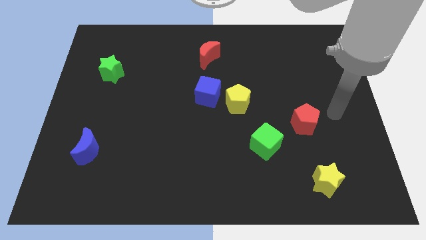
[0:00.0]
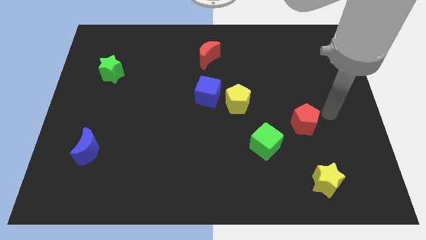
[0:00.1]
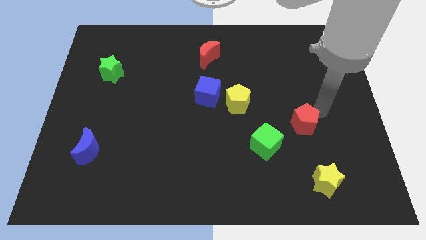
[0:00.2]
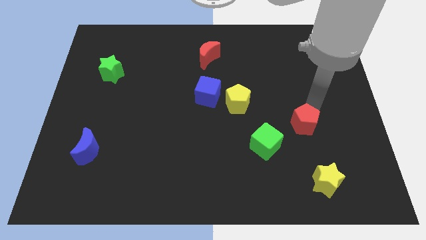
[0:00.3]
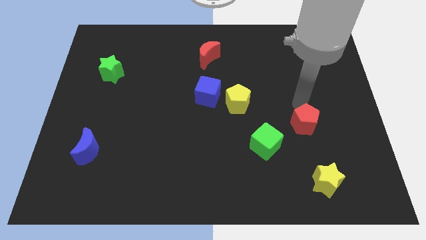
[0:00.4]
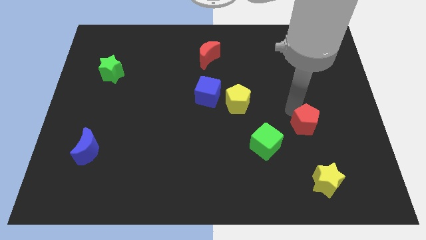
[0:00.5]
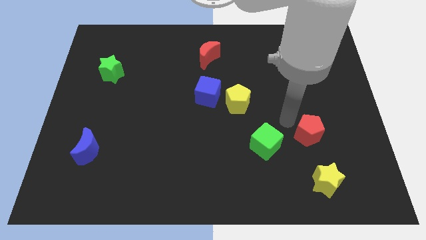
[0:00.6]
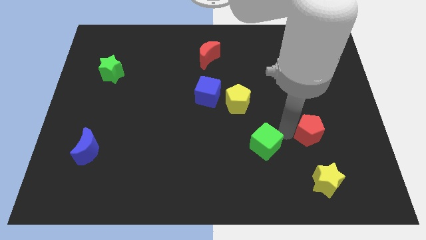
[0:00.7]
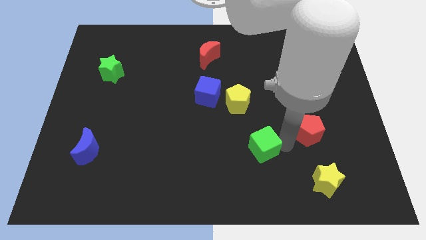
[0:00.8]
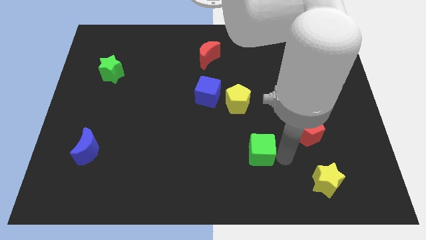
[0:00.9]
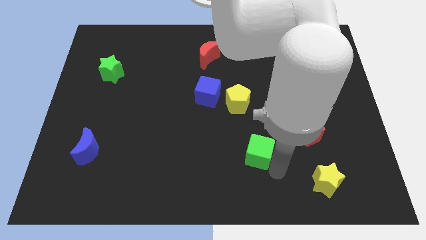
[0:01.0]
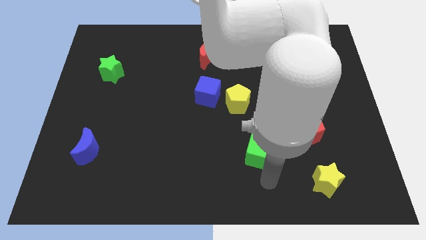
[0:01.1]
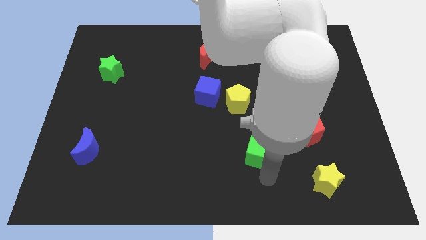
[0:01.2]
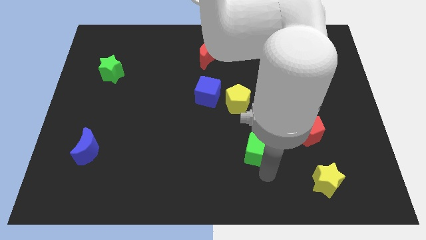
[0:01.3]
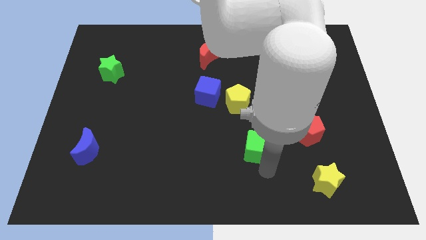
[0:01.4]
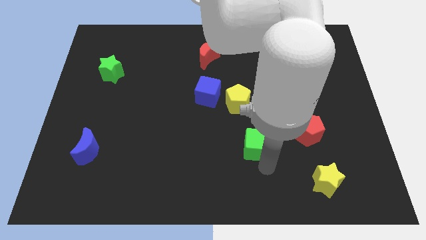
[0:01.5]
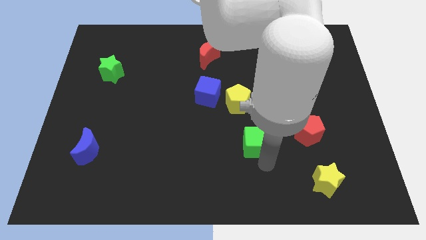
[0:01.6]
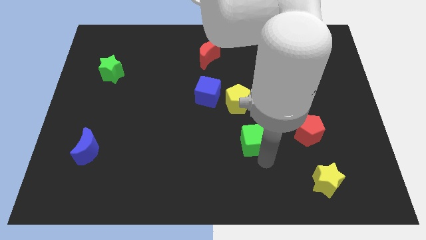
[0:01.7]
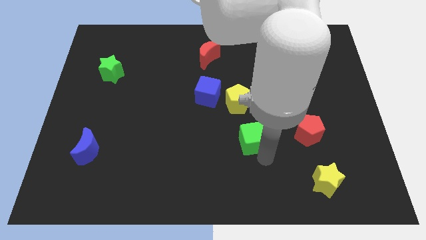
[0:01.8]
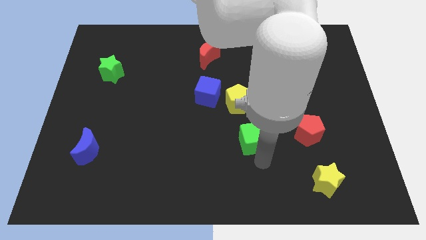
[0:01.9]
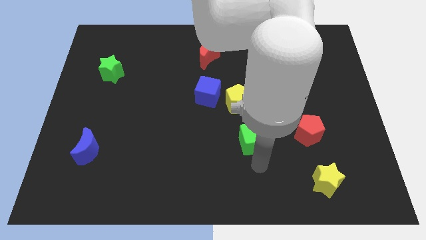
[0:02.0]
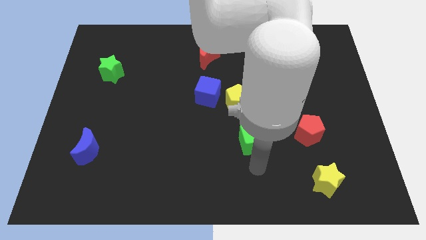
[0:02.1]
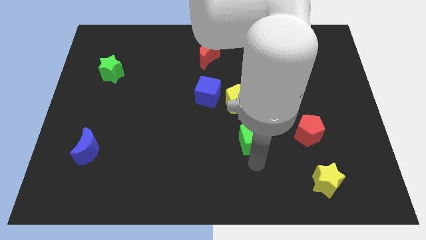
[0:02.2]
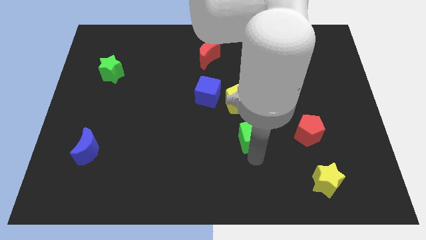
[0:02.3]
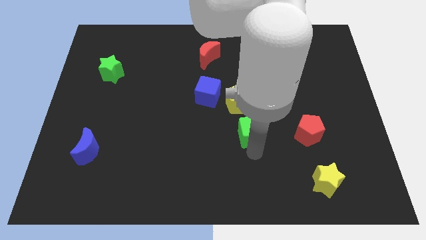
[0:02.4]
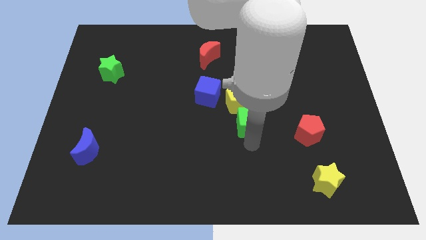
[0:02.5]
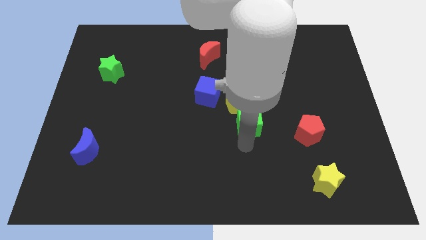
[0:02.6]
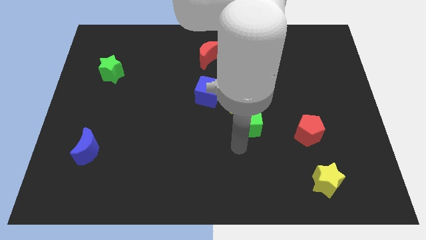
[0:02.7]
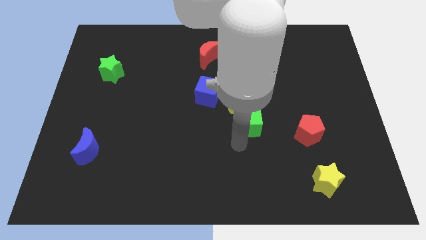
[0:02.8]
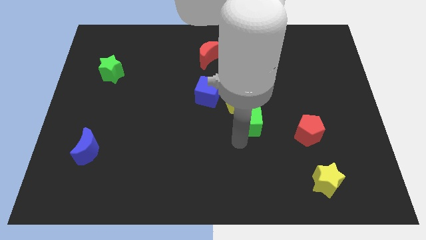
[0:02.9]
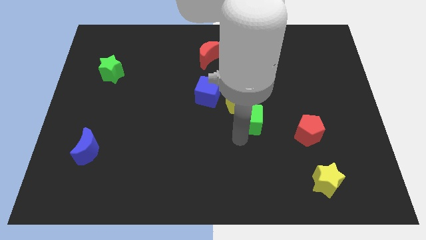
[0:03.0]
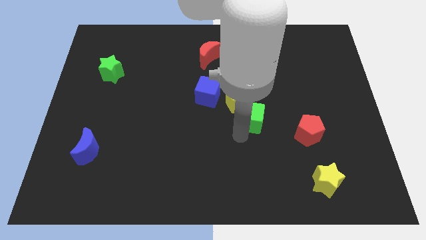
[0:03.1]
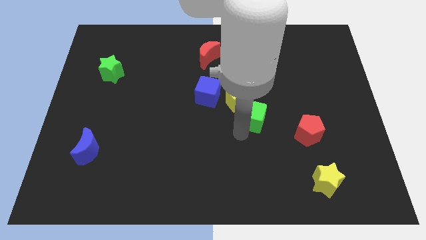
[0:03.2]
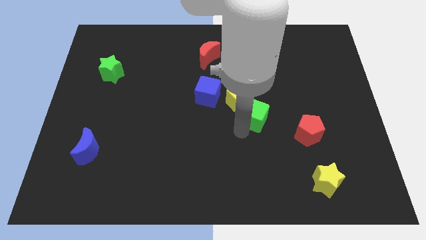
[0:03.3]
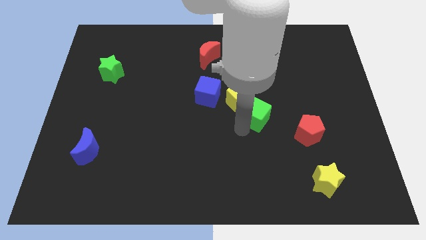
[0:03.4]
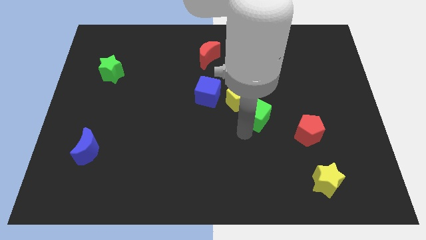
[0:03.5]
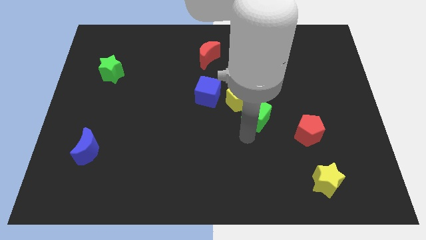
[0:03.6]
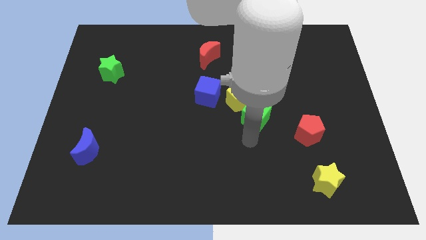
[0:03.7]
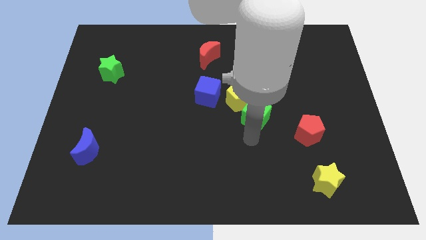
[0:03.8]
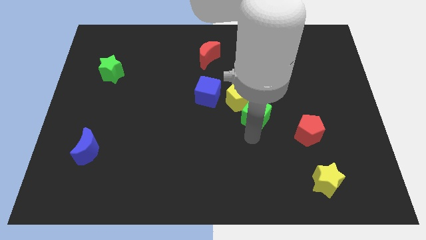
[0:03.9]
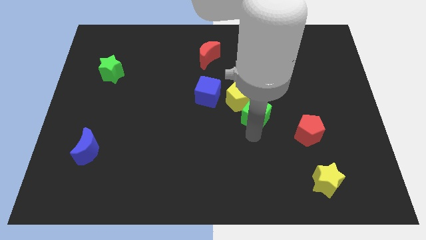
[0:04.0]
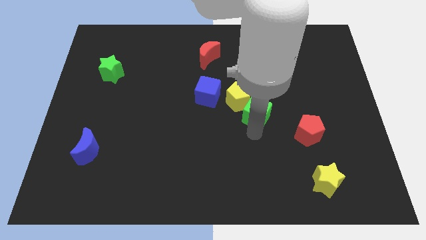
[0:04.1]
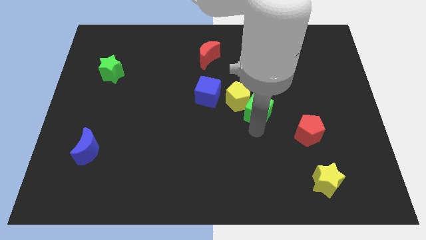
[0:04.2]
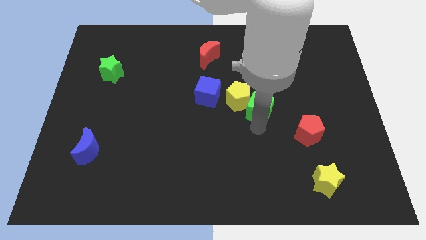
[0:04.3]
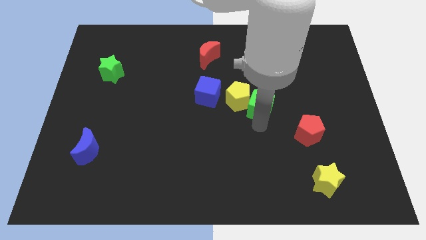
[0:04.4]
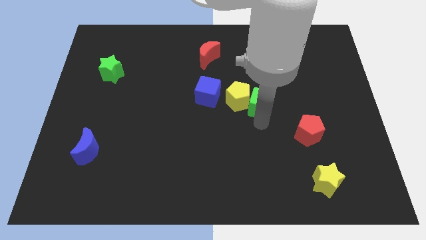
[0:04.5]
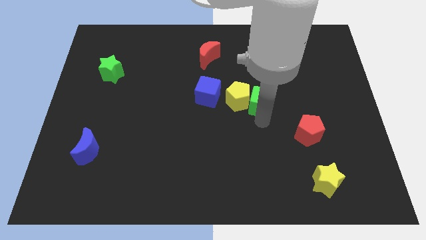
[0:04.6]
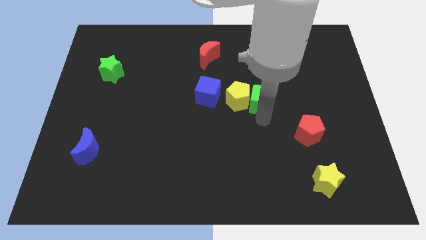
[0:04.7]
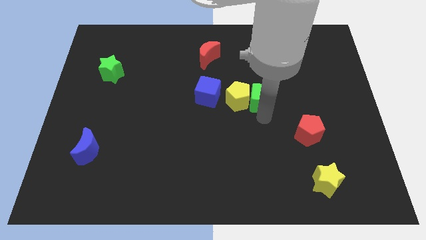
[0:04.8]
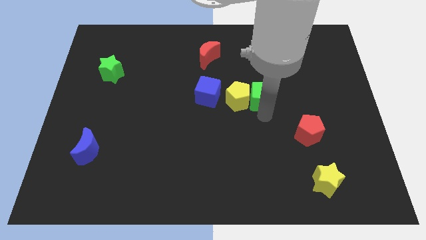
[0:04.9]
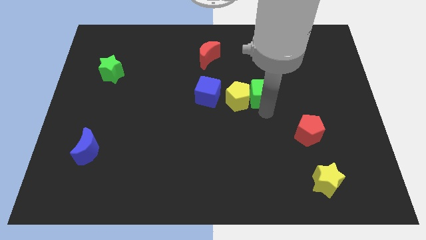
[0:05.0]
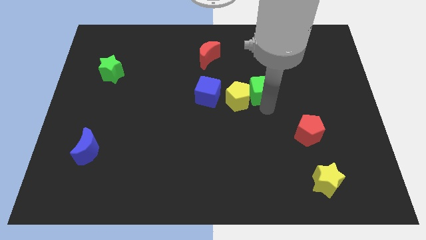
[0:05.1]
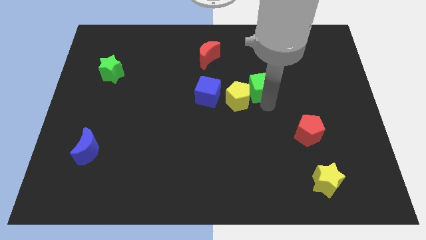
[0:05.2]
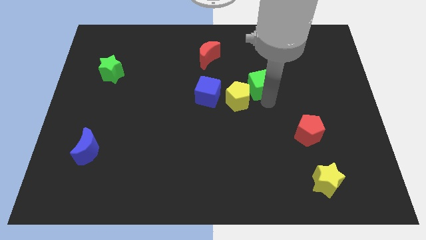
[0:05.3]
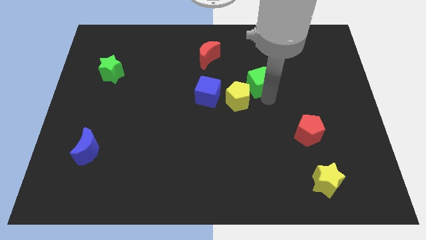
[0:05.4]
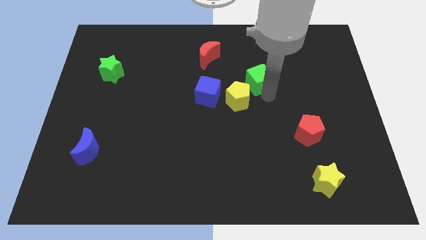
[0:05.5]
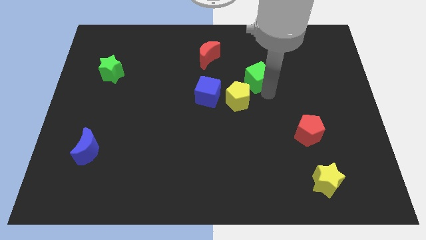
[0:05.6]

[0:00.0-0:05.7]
put the green cube to the top side of the yellow pentagon

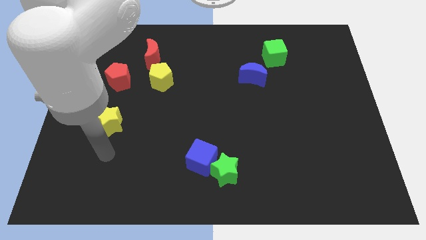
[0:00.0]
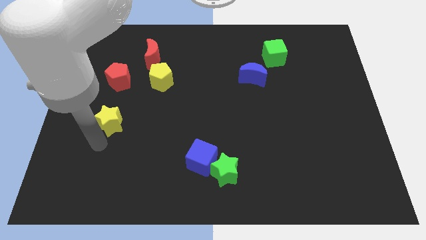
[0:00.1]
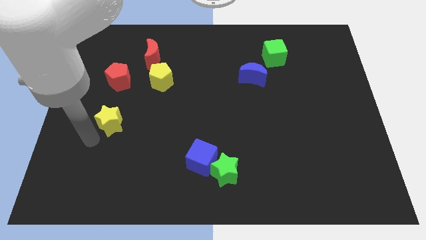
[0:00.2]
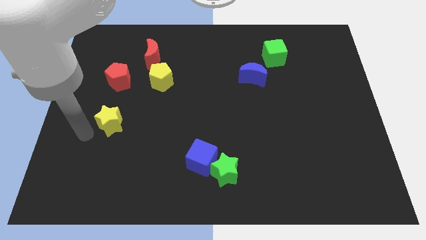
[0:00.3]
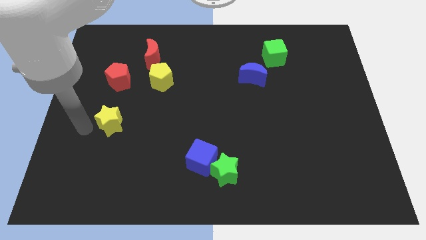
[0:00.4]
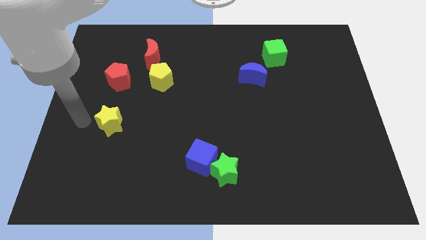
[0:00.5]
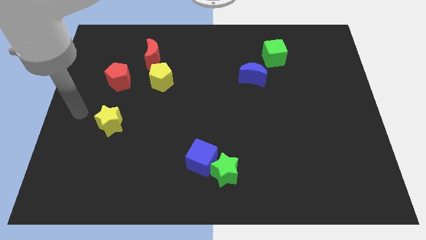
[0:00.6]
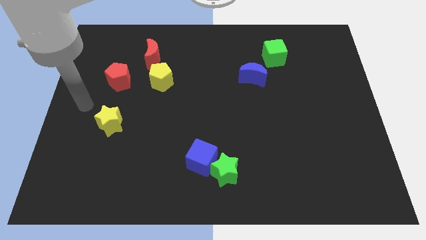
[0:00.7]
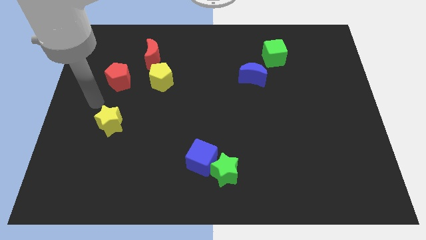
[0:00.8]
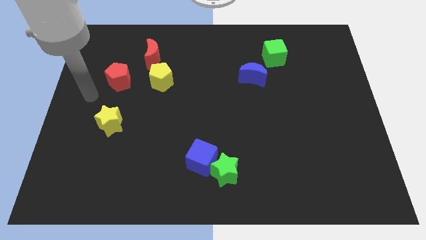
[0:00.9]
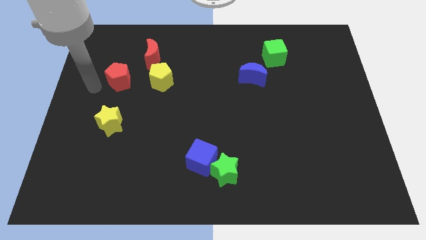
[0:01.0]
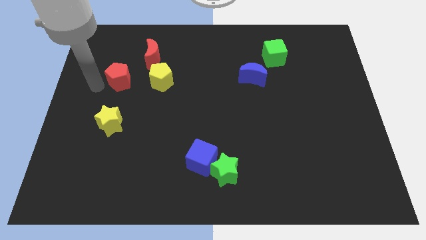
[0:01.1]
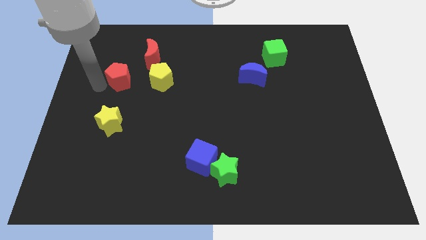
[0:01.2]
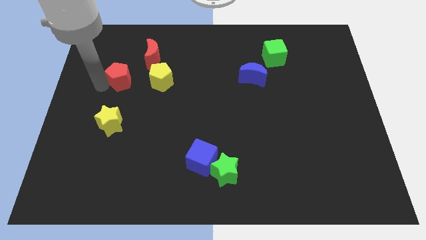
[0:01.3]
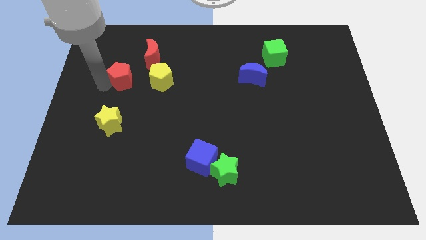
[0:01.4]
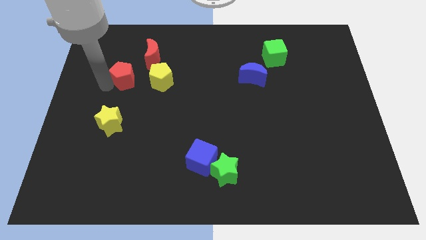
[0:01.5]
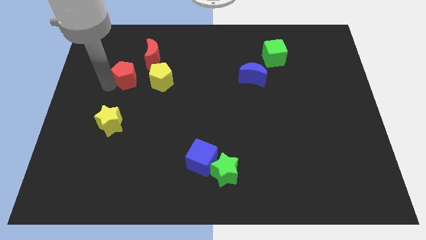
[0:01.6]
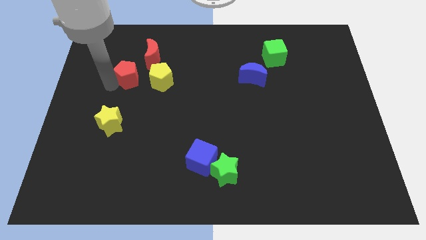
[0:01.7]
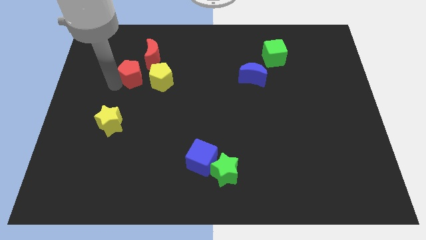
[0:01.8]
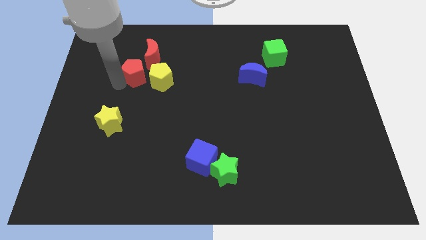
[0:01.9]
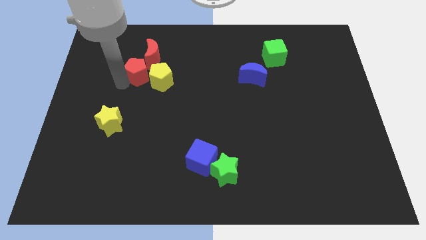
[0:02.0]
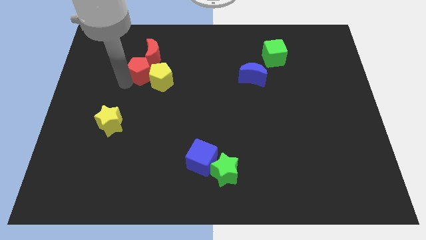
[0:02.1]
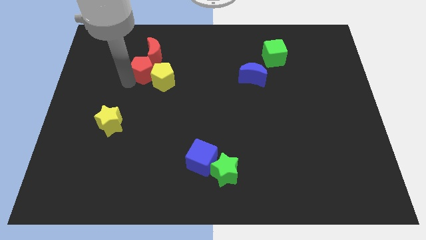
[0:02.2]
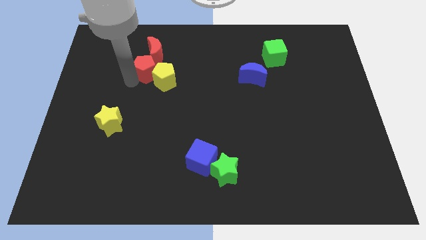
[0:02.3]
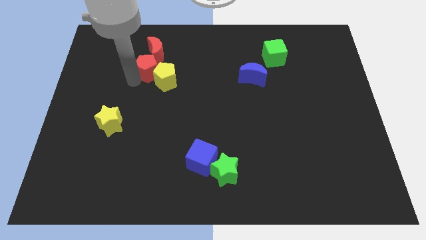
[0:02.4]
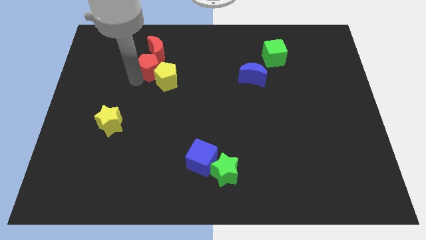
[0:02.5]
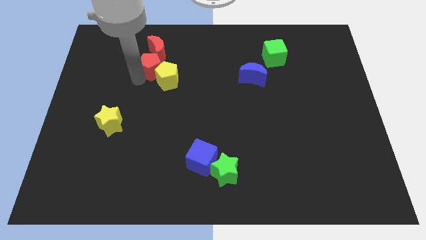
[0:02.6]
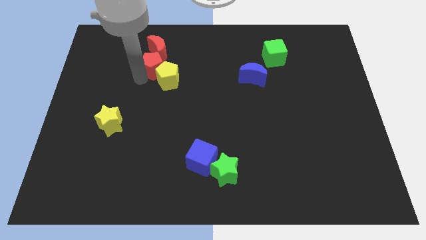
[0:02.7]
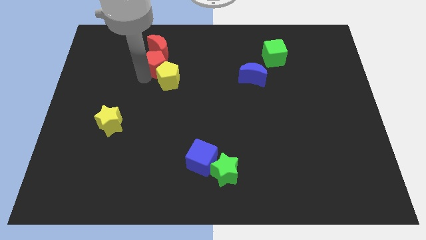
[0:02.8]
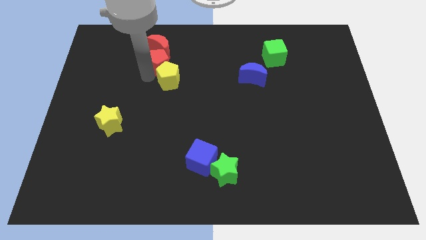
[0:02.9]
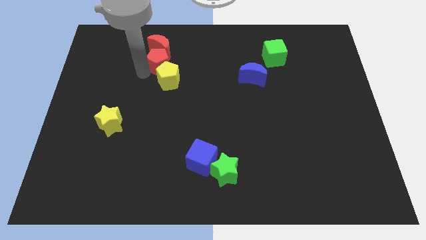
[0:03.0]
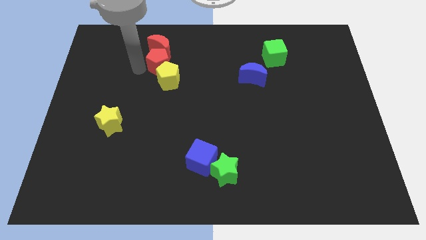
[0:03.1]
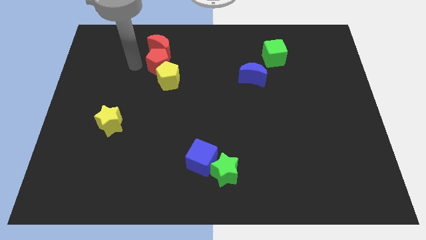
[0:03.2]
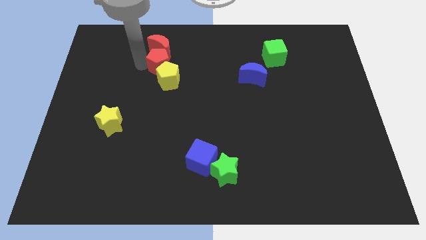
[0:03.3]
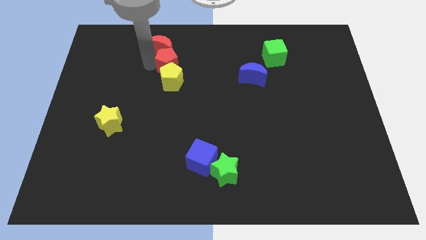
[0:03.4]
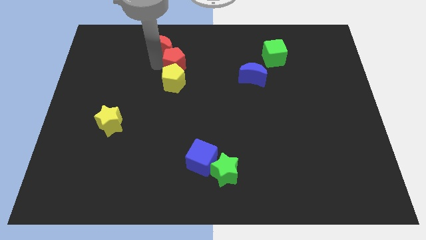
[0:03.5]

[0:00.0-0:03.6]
slide the red pentagon diagonally up and to the right of the yellow pentagon
